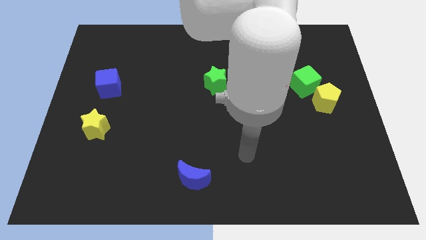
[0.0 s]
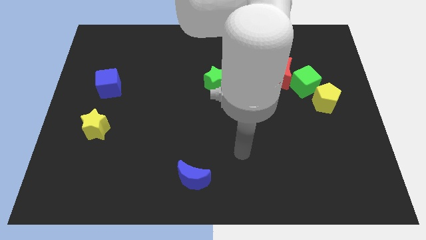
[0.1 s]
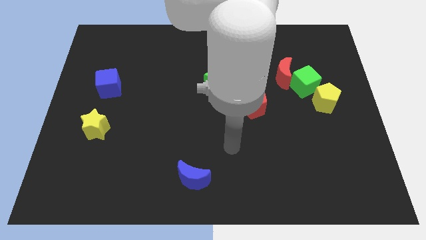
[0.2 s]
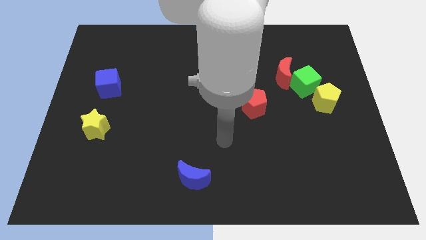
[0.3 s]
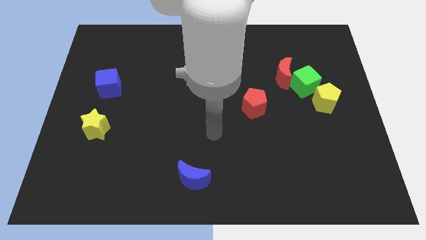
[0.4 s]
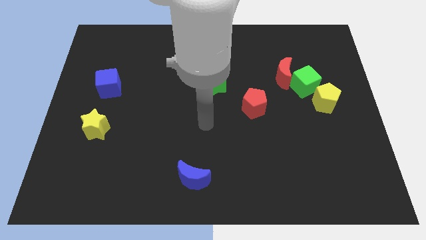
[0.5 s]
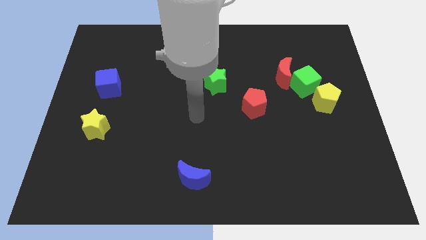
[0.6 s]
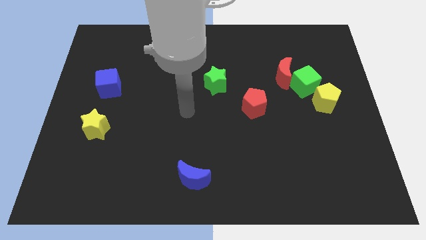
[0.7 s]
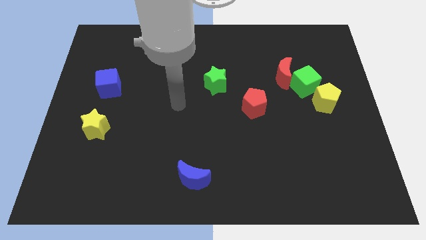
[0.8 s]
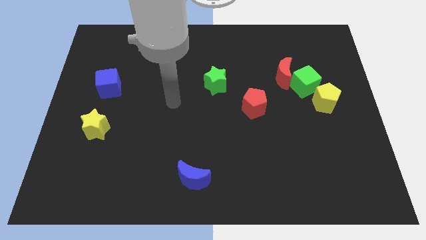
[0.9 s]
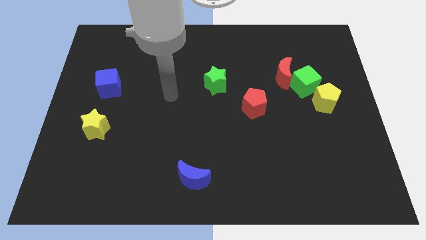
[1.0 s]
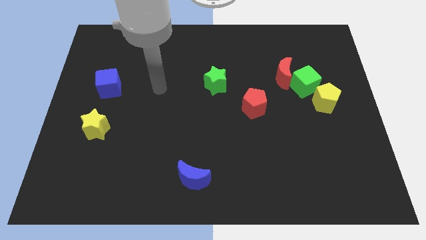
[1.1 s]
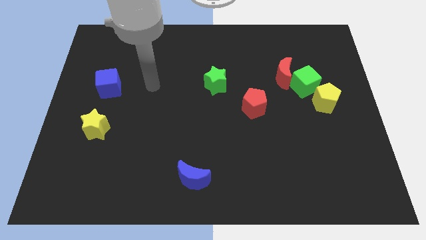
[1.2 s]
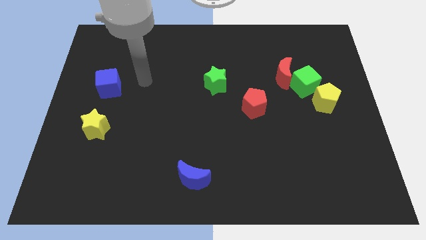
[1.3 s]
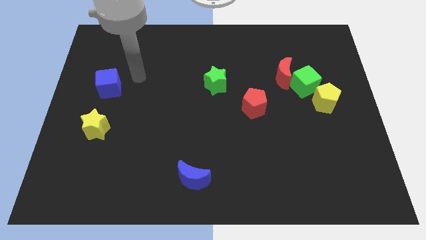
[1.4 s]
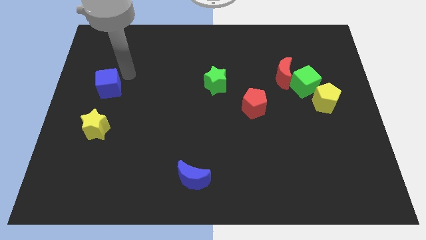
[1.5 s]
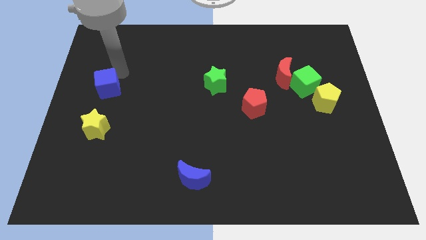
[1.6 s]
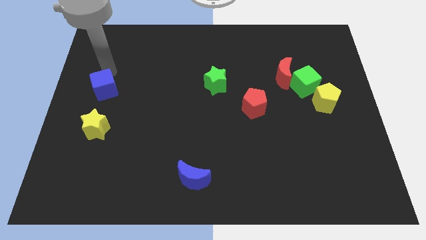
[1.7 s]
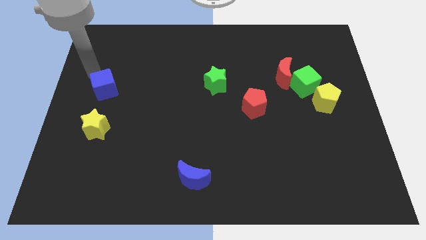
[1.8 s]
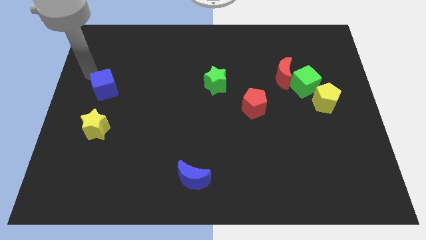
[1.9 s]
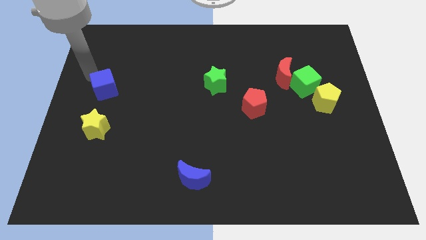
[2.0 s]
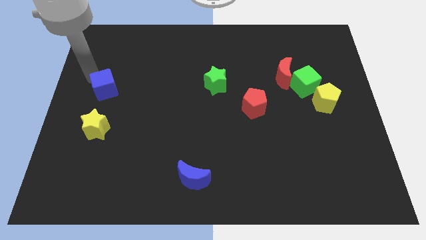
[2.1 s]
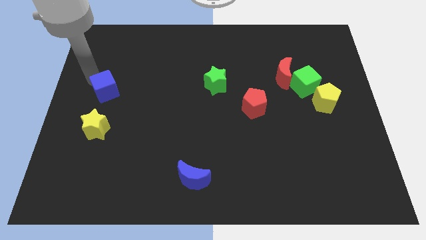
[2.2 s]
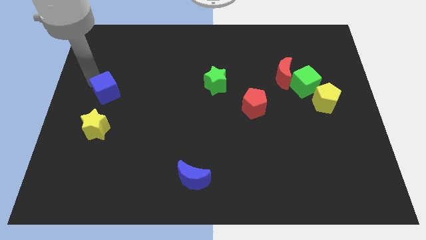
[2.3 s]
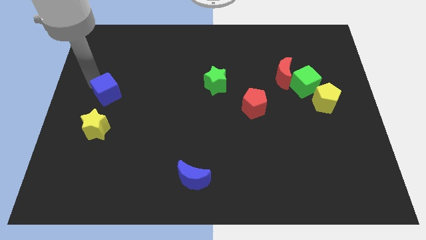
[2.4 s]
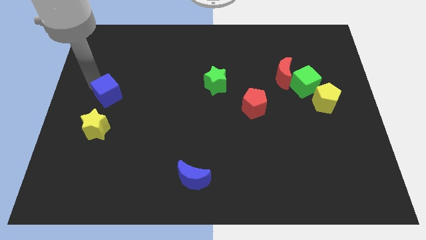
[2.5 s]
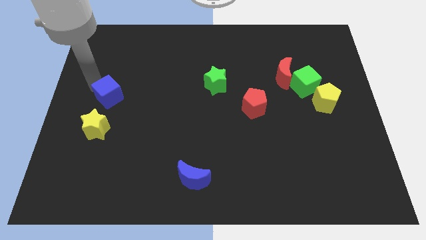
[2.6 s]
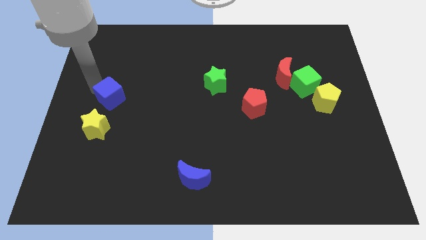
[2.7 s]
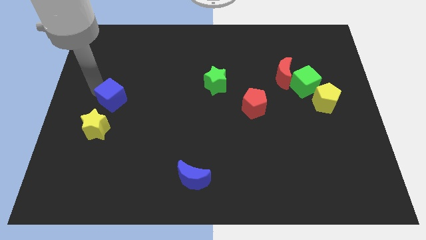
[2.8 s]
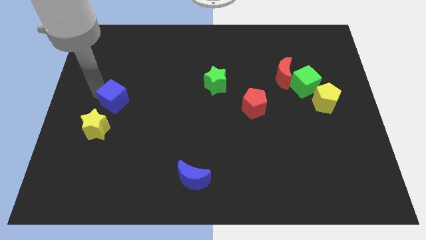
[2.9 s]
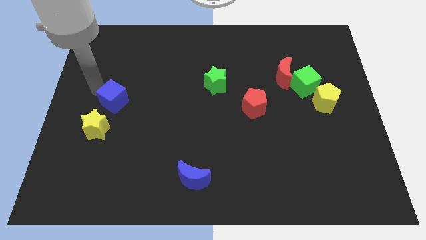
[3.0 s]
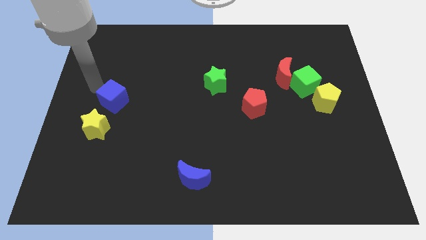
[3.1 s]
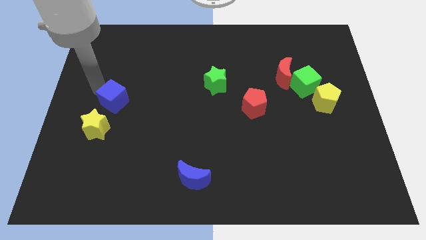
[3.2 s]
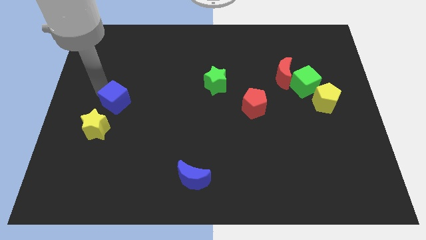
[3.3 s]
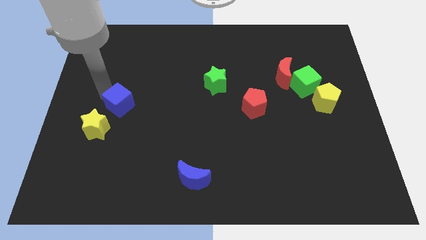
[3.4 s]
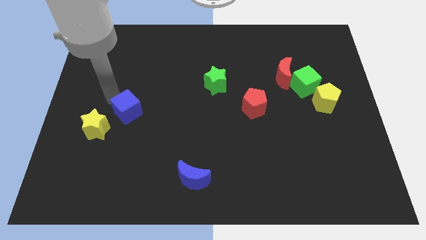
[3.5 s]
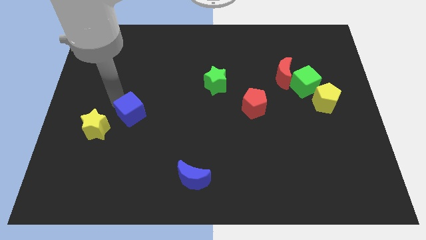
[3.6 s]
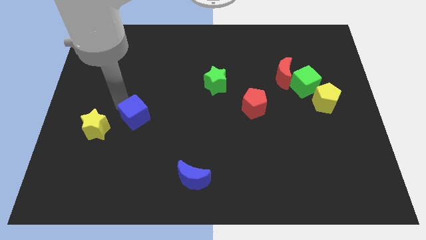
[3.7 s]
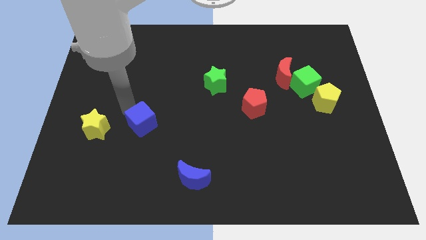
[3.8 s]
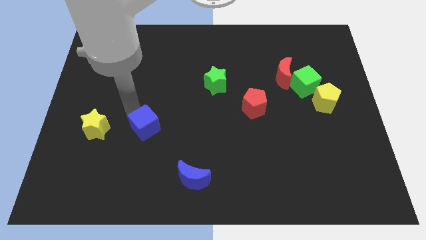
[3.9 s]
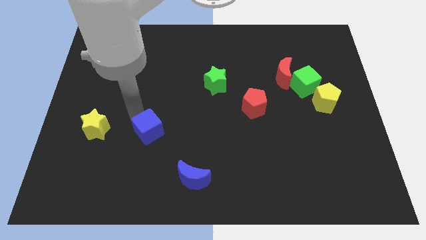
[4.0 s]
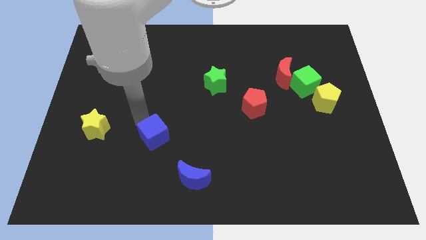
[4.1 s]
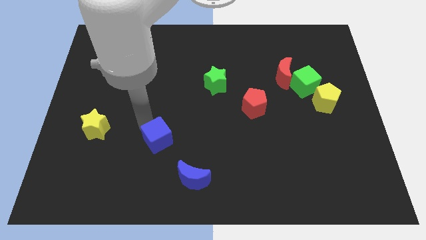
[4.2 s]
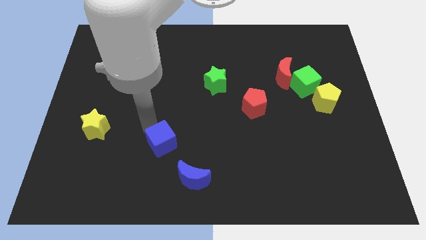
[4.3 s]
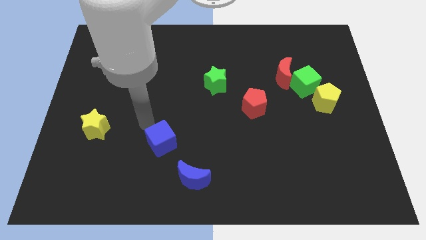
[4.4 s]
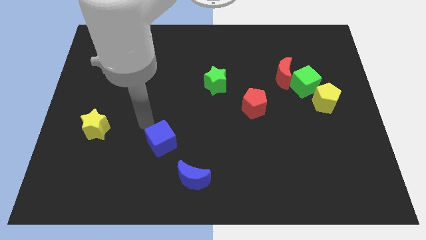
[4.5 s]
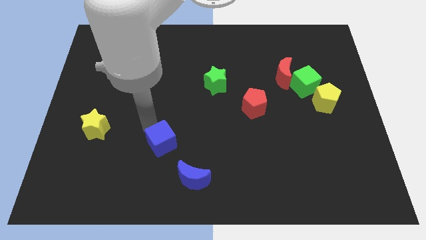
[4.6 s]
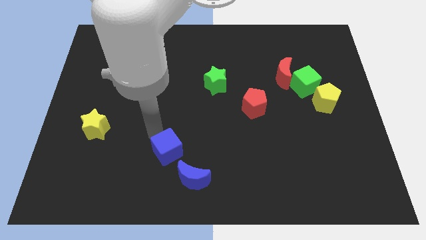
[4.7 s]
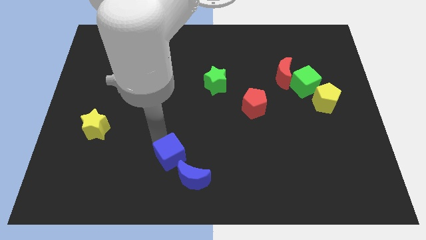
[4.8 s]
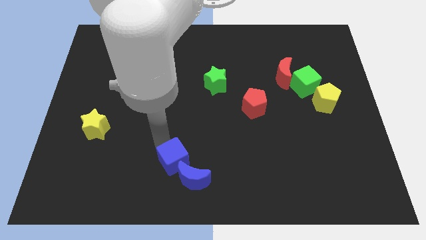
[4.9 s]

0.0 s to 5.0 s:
move the blue cube next to the blue moon

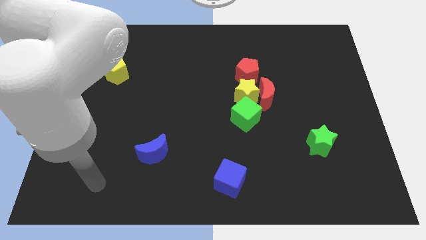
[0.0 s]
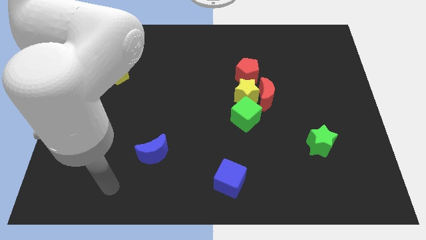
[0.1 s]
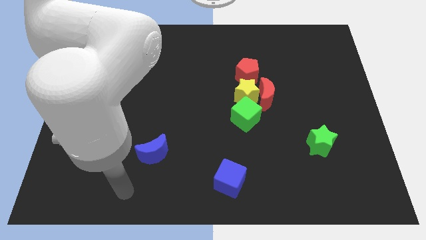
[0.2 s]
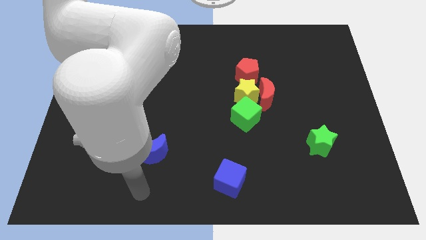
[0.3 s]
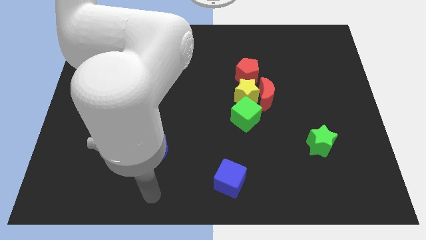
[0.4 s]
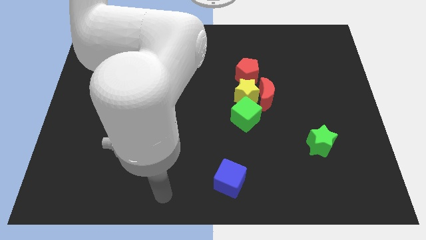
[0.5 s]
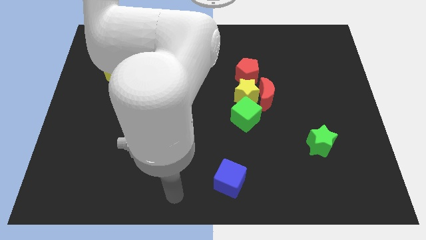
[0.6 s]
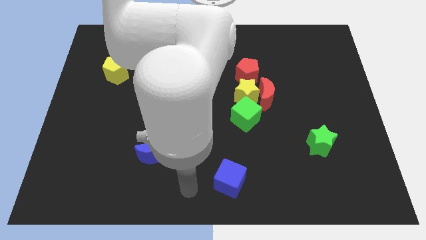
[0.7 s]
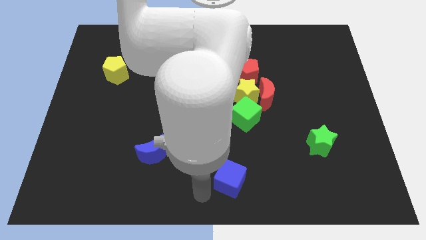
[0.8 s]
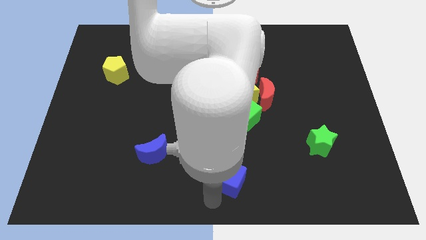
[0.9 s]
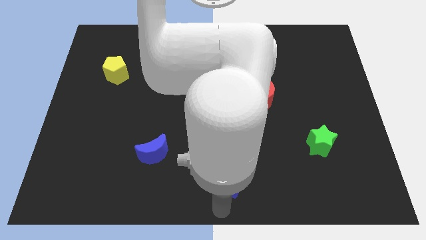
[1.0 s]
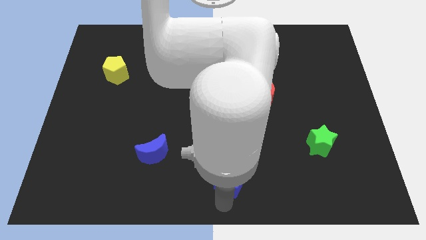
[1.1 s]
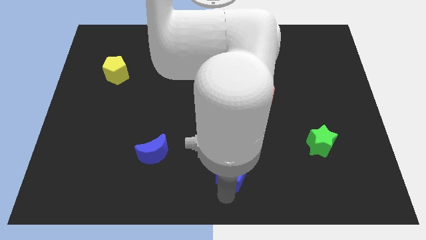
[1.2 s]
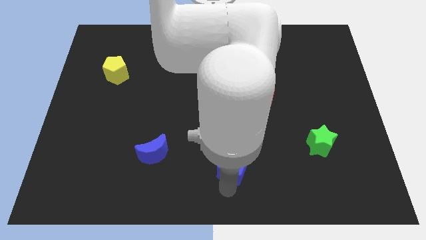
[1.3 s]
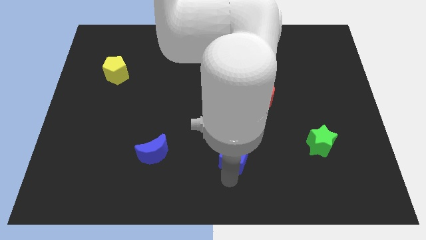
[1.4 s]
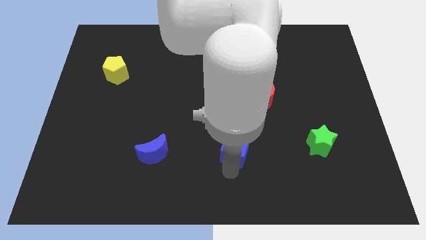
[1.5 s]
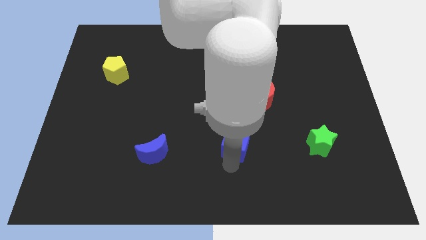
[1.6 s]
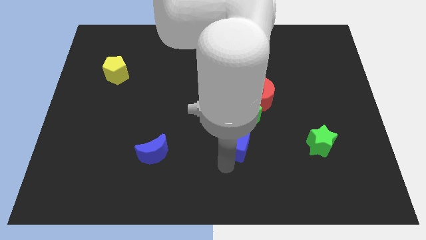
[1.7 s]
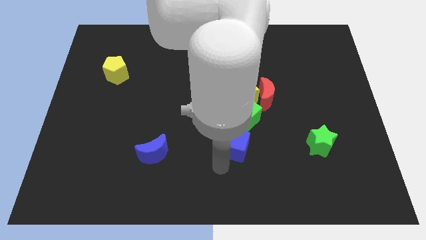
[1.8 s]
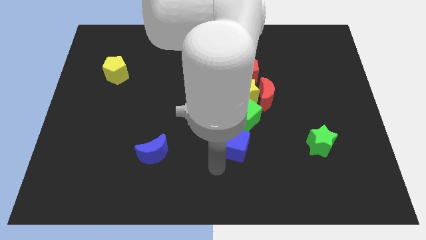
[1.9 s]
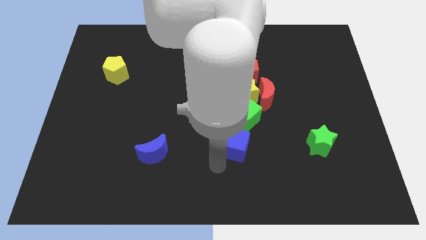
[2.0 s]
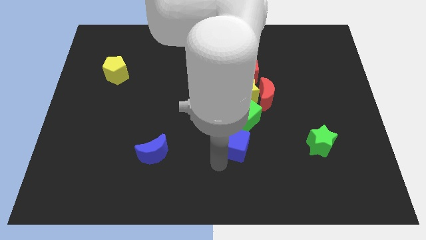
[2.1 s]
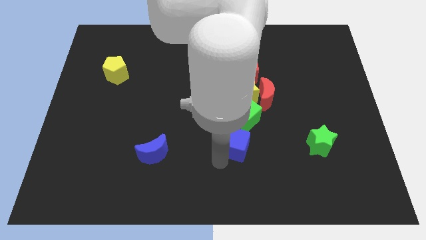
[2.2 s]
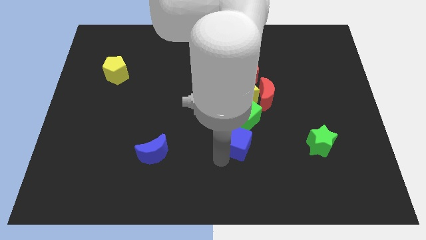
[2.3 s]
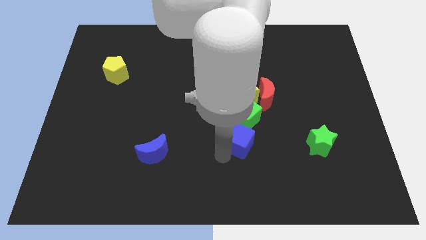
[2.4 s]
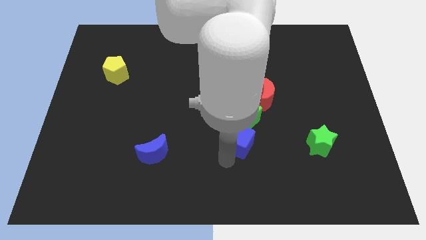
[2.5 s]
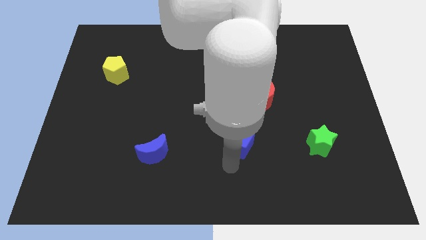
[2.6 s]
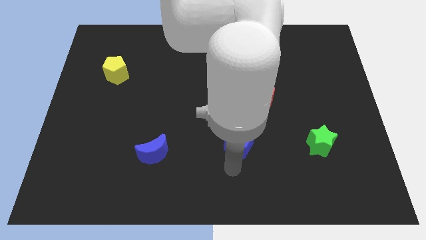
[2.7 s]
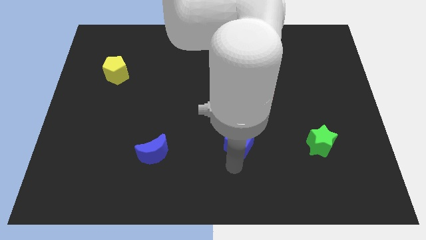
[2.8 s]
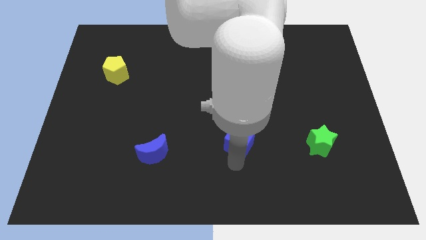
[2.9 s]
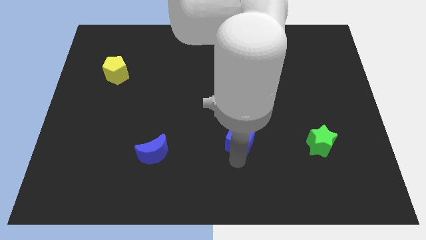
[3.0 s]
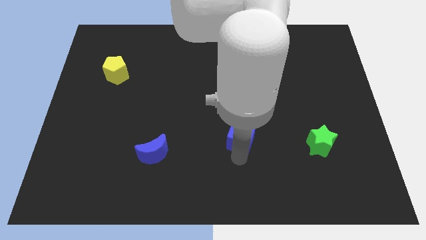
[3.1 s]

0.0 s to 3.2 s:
put the blue cube to the green cube
